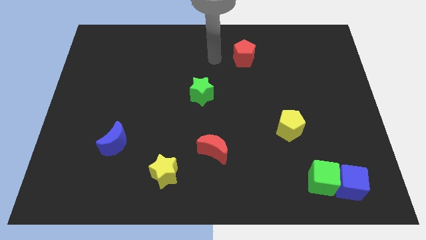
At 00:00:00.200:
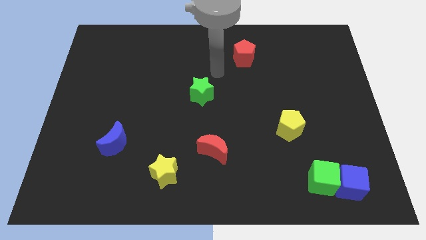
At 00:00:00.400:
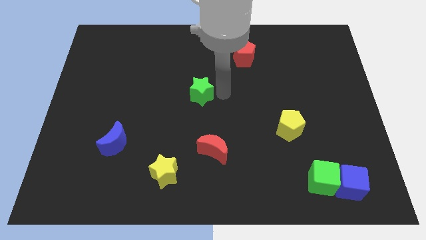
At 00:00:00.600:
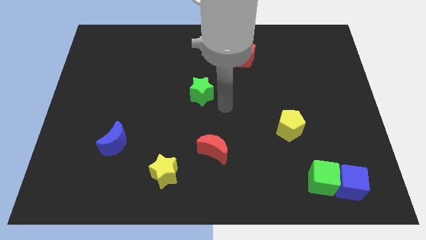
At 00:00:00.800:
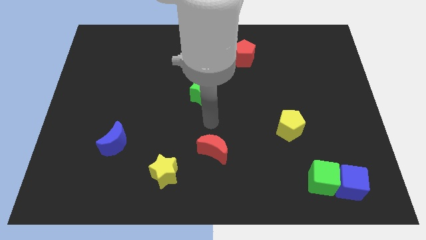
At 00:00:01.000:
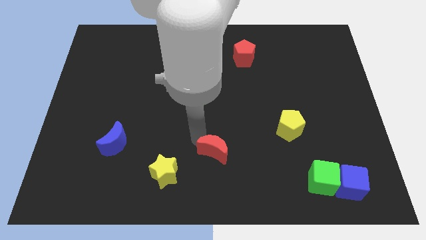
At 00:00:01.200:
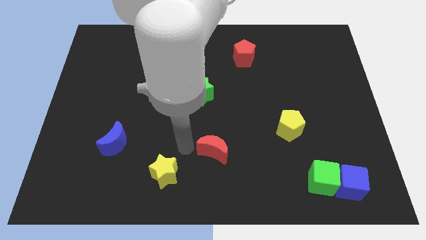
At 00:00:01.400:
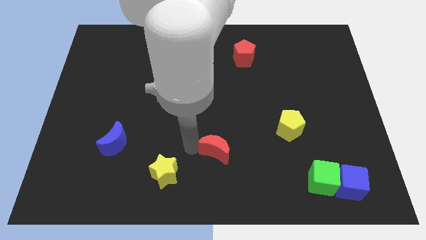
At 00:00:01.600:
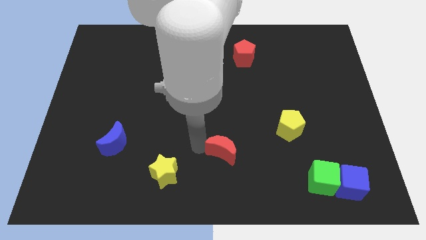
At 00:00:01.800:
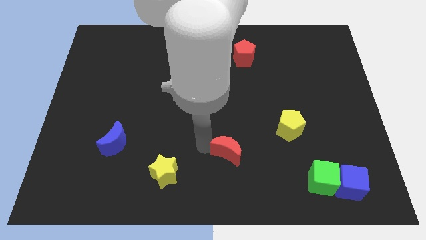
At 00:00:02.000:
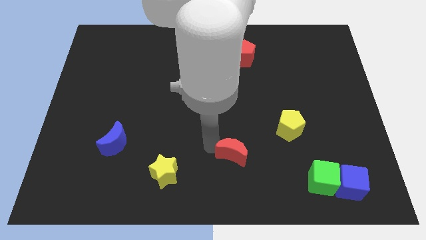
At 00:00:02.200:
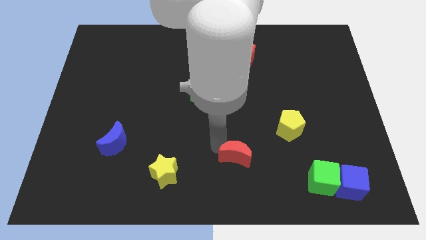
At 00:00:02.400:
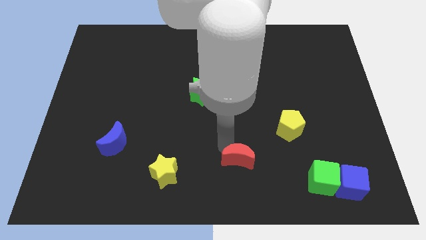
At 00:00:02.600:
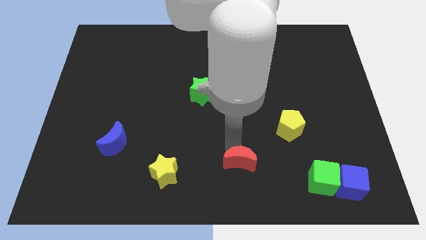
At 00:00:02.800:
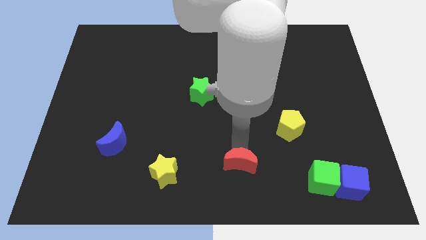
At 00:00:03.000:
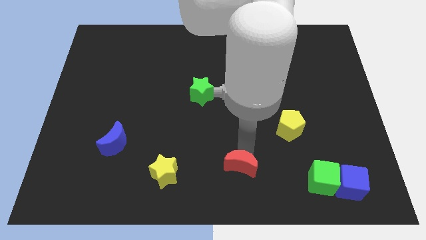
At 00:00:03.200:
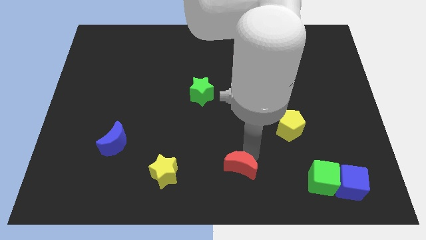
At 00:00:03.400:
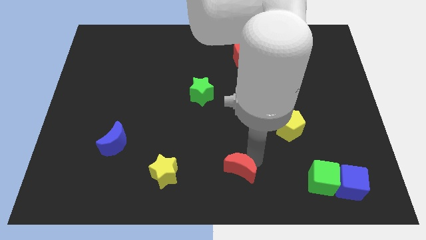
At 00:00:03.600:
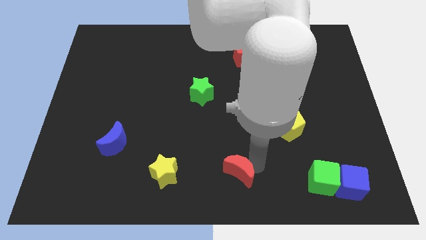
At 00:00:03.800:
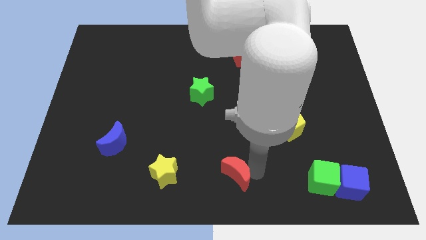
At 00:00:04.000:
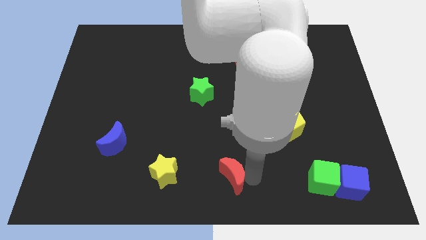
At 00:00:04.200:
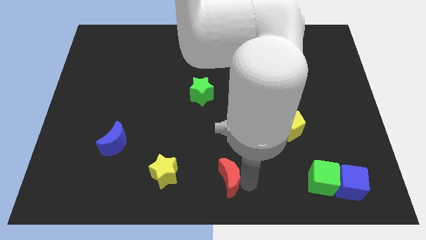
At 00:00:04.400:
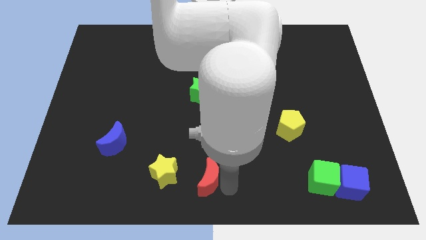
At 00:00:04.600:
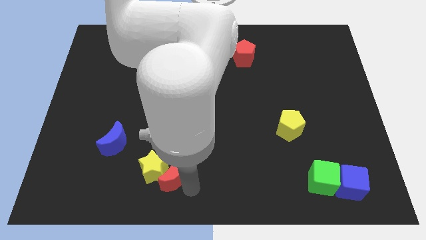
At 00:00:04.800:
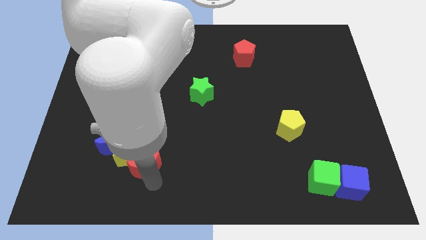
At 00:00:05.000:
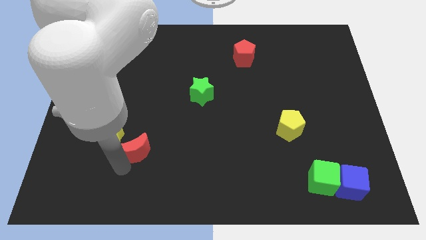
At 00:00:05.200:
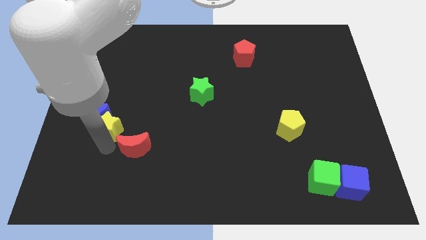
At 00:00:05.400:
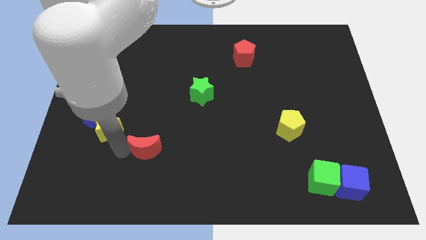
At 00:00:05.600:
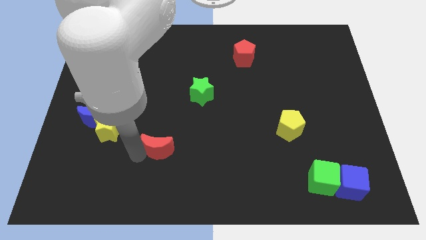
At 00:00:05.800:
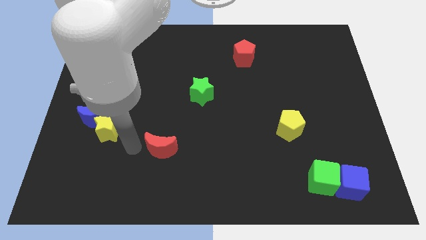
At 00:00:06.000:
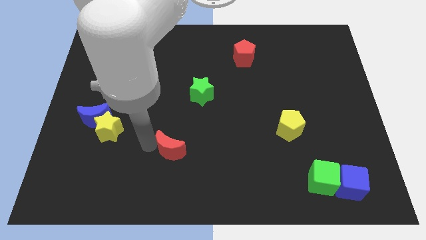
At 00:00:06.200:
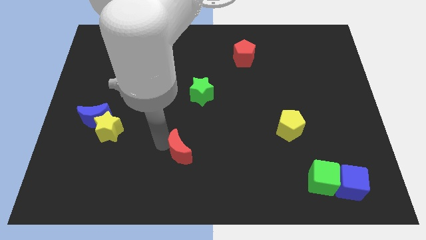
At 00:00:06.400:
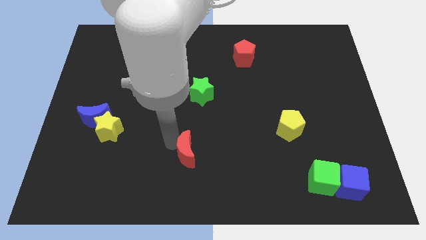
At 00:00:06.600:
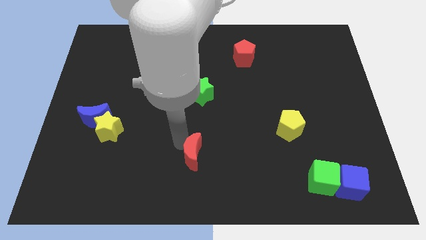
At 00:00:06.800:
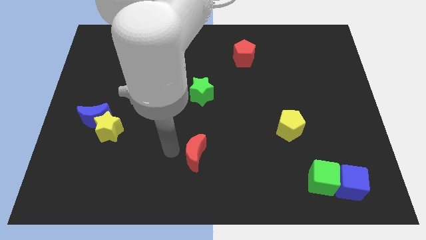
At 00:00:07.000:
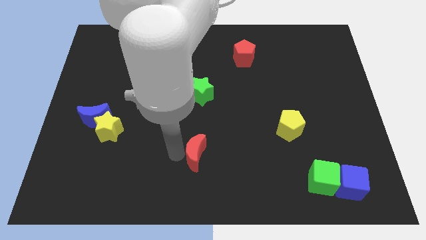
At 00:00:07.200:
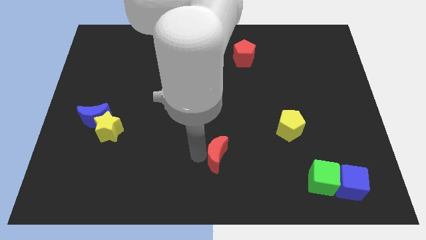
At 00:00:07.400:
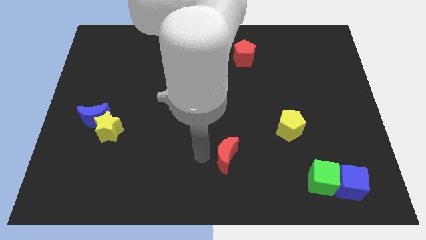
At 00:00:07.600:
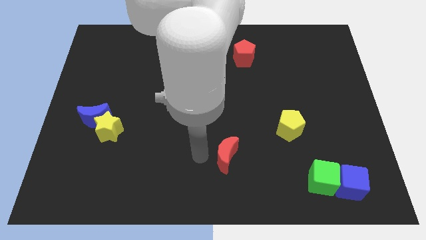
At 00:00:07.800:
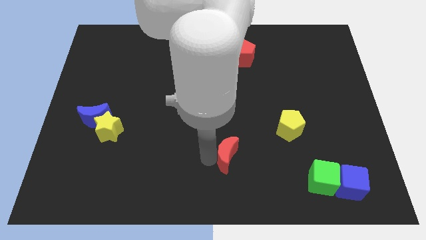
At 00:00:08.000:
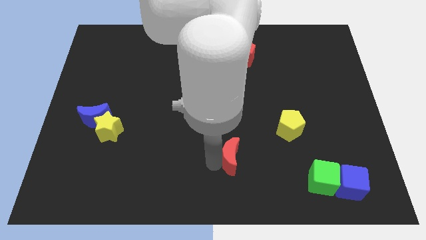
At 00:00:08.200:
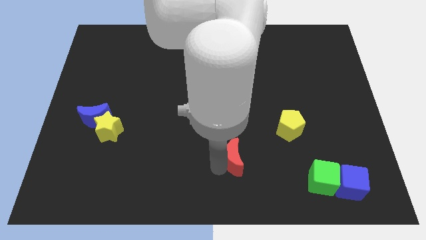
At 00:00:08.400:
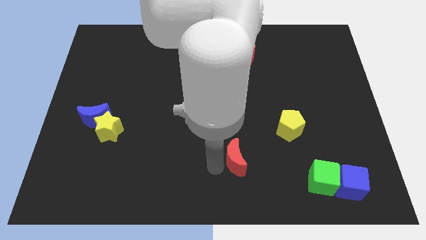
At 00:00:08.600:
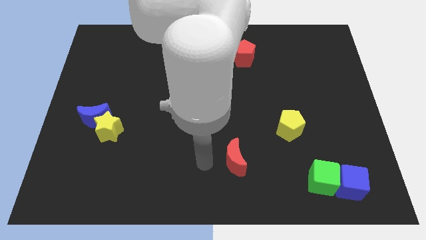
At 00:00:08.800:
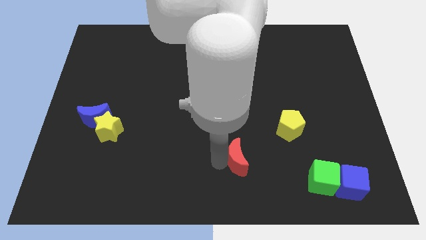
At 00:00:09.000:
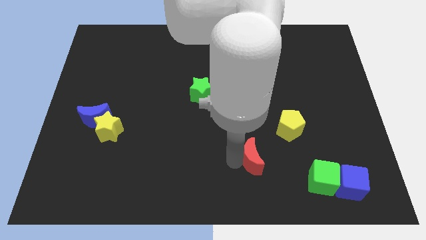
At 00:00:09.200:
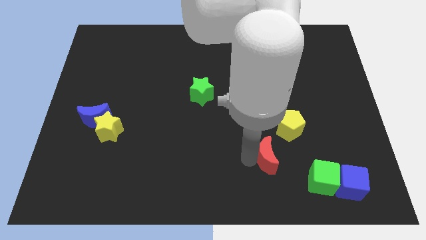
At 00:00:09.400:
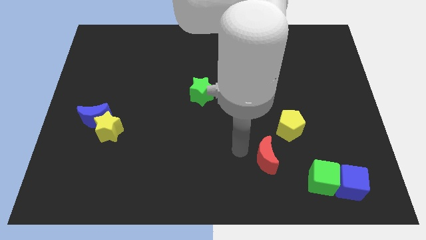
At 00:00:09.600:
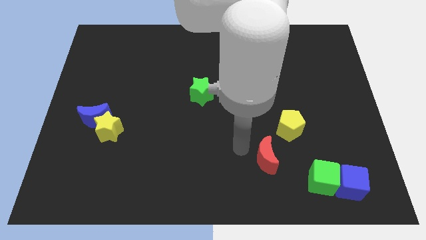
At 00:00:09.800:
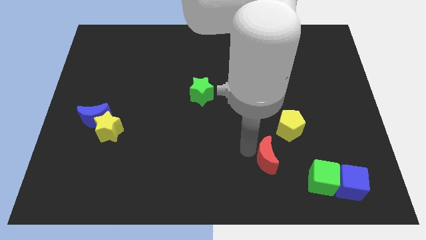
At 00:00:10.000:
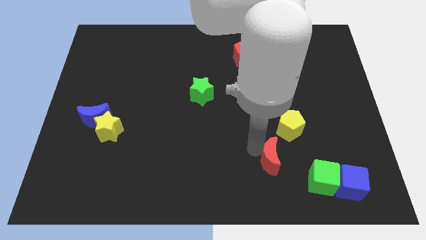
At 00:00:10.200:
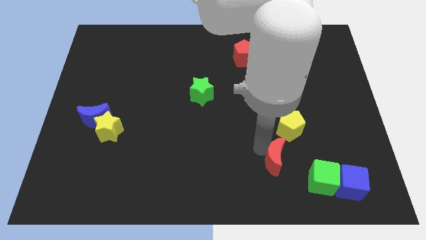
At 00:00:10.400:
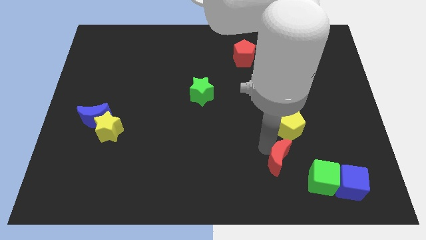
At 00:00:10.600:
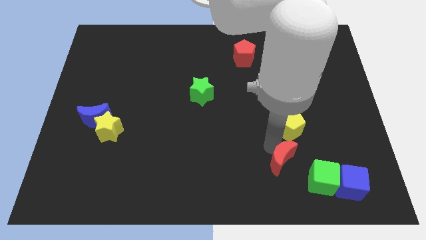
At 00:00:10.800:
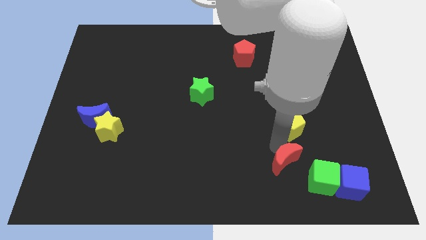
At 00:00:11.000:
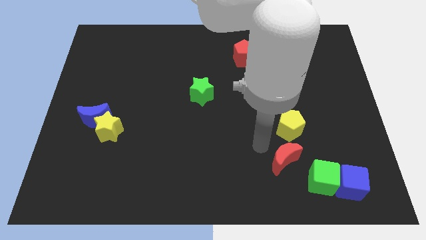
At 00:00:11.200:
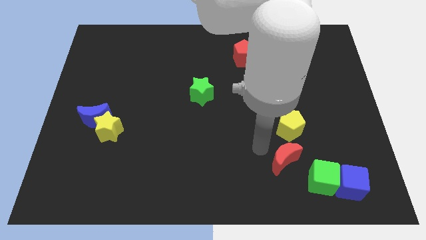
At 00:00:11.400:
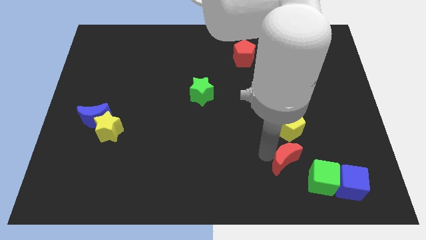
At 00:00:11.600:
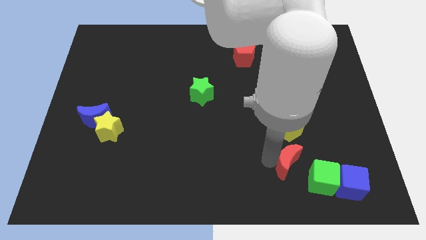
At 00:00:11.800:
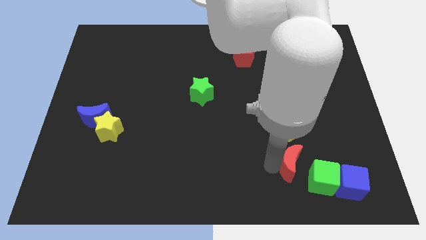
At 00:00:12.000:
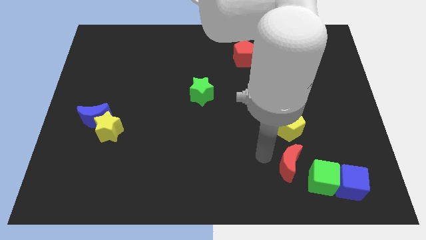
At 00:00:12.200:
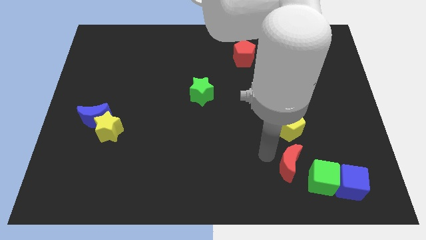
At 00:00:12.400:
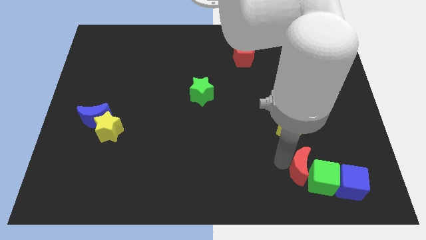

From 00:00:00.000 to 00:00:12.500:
slide the red moon to the green cube

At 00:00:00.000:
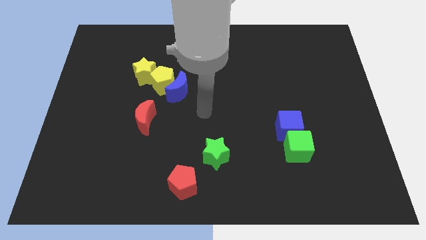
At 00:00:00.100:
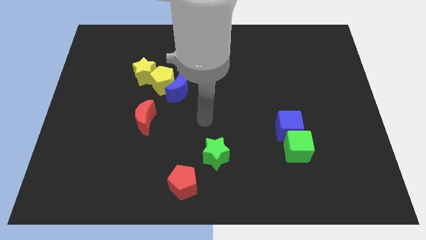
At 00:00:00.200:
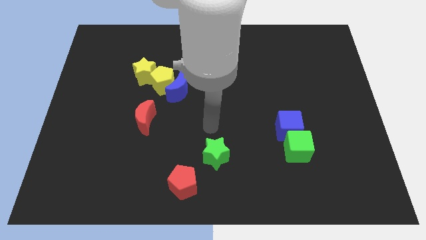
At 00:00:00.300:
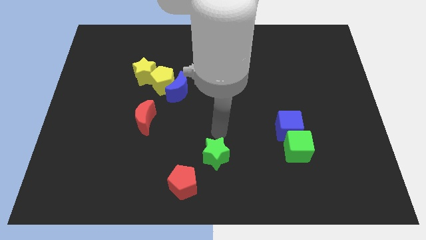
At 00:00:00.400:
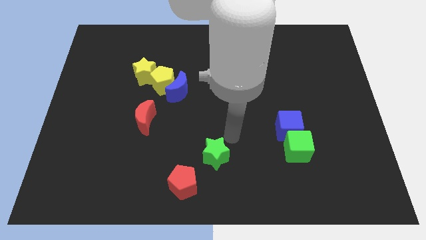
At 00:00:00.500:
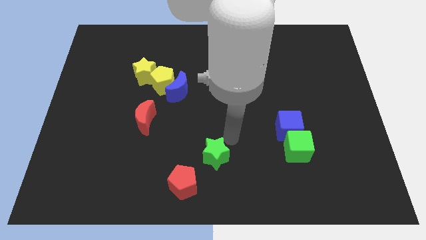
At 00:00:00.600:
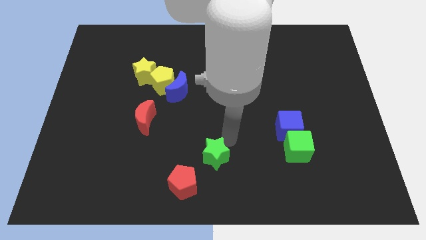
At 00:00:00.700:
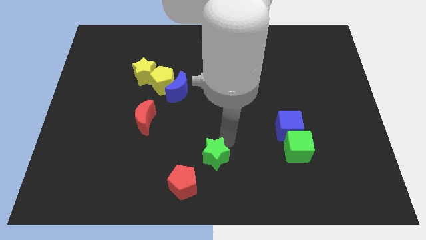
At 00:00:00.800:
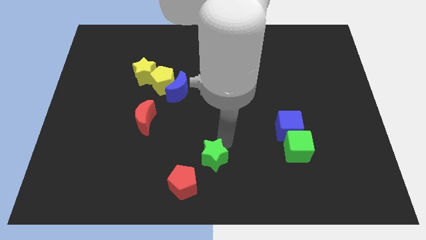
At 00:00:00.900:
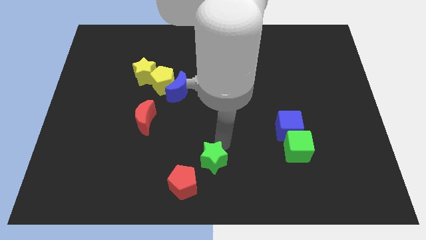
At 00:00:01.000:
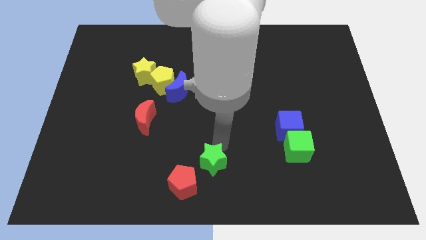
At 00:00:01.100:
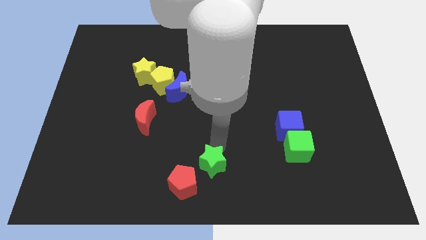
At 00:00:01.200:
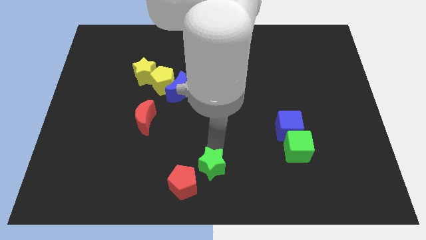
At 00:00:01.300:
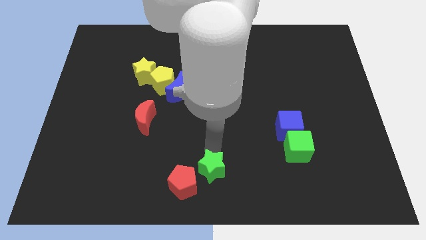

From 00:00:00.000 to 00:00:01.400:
put the green star to the red pentagon
